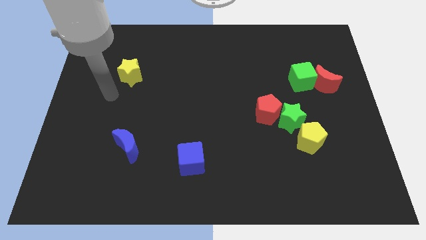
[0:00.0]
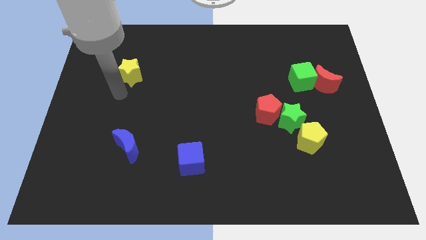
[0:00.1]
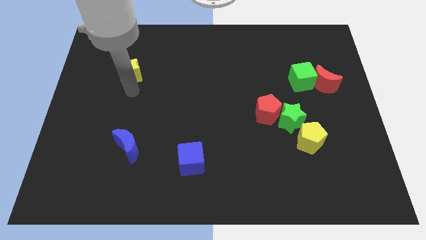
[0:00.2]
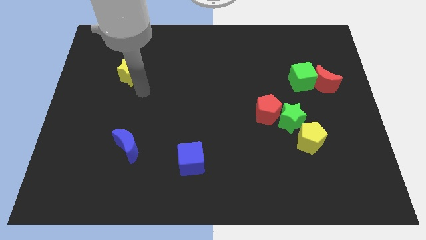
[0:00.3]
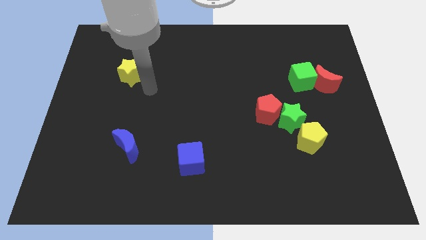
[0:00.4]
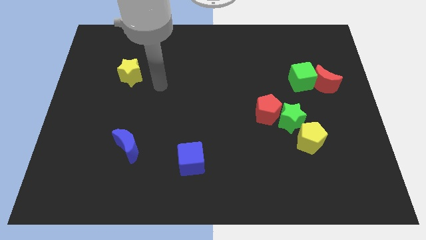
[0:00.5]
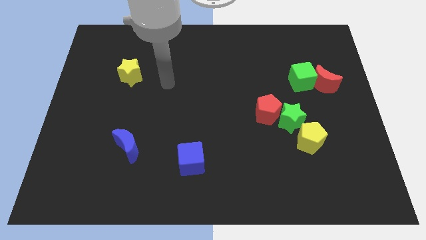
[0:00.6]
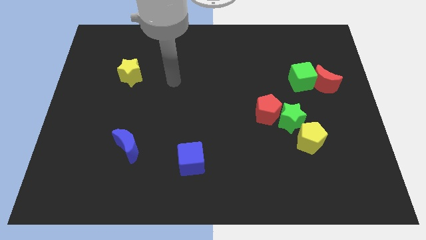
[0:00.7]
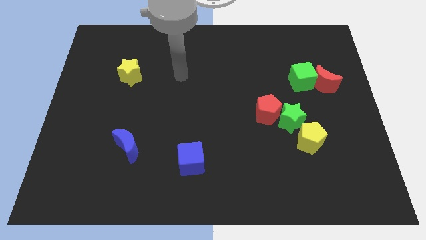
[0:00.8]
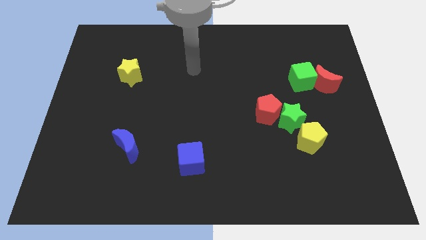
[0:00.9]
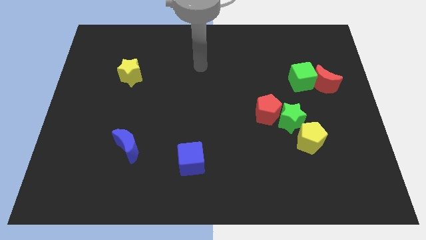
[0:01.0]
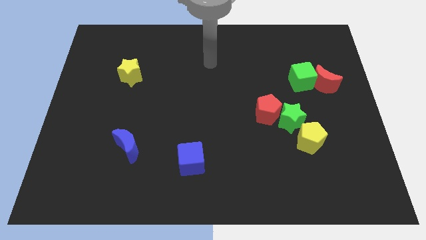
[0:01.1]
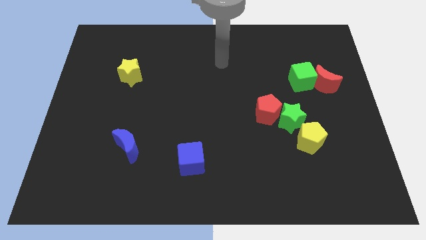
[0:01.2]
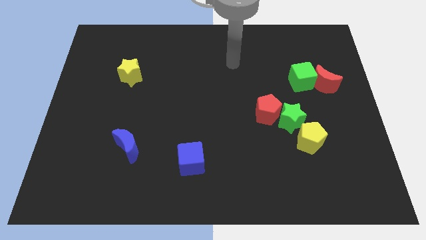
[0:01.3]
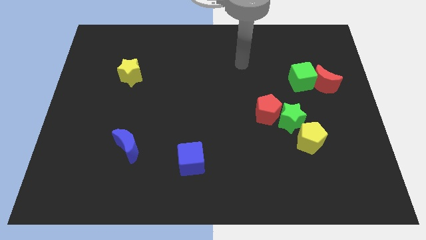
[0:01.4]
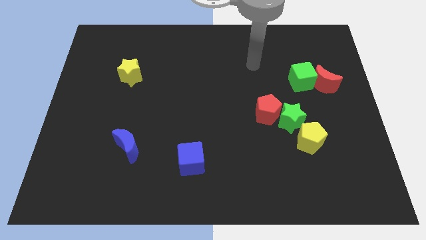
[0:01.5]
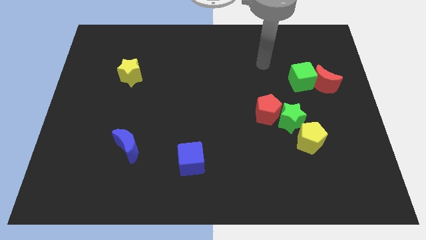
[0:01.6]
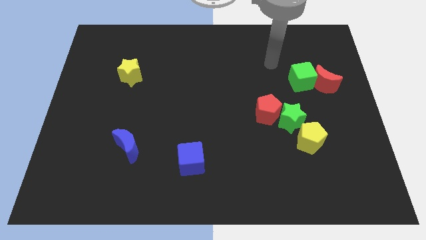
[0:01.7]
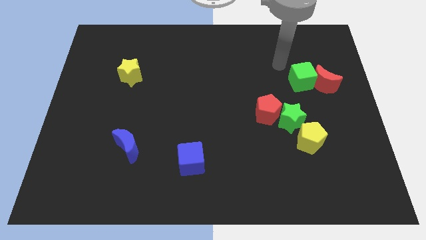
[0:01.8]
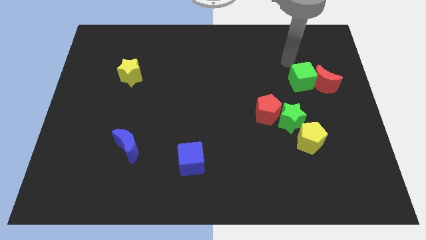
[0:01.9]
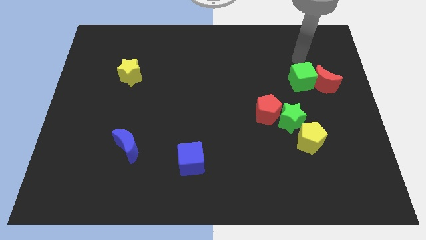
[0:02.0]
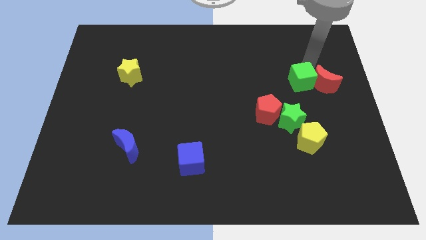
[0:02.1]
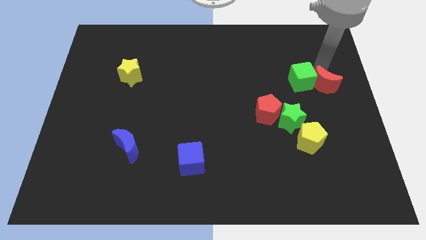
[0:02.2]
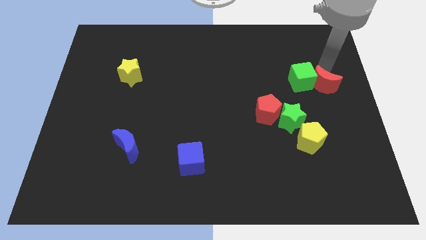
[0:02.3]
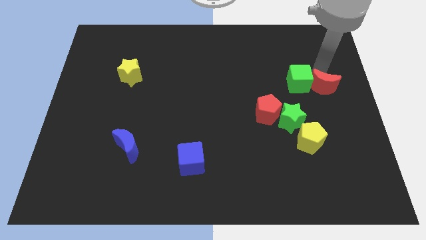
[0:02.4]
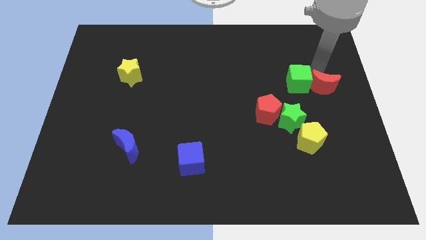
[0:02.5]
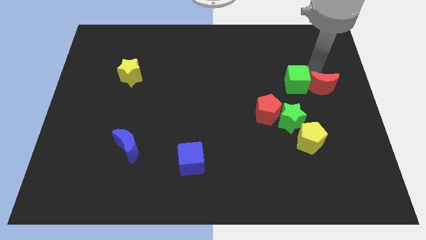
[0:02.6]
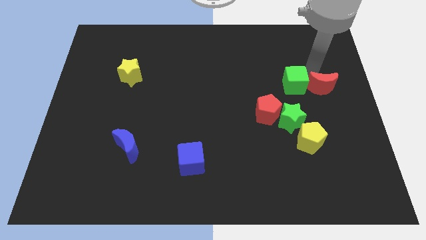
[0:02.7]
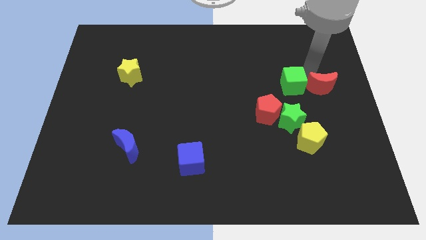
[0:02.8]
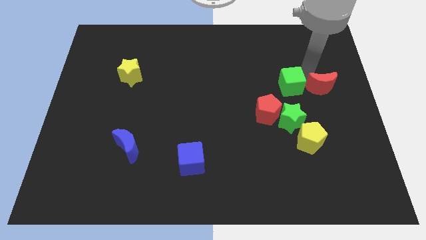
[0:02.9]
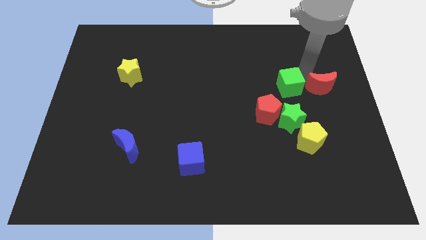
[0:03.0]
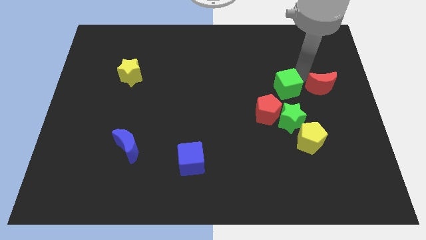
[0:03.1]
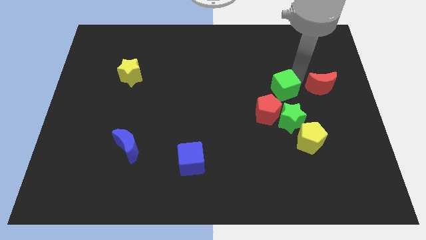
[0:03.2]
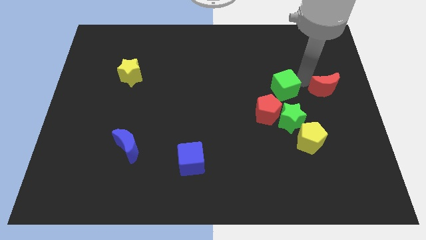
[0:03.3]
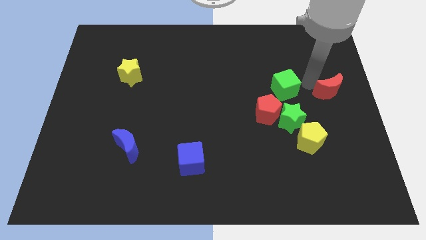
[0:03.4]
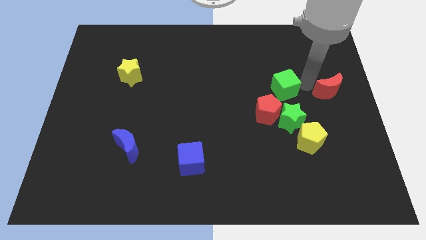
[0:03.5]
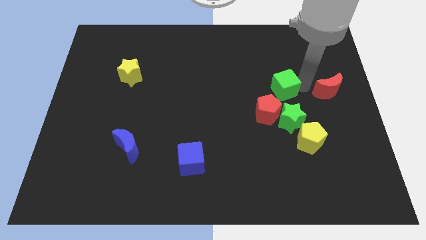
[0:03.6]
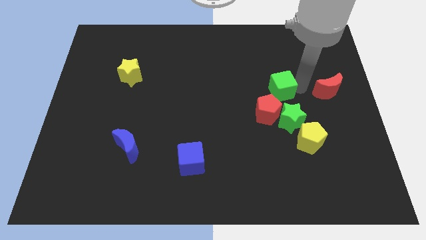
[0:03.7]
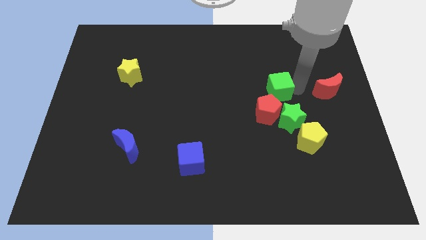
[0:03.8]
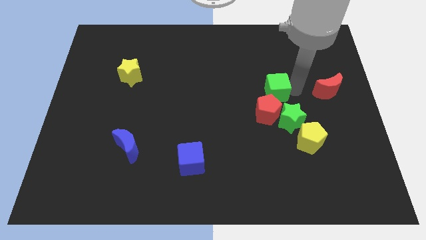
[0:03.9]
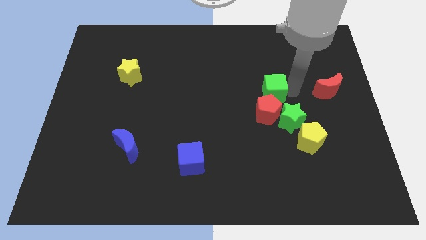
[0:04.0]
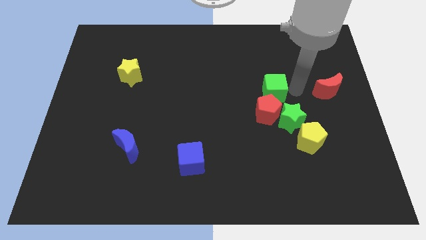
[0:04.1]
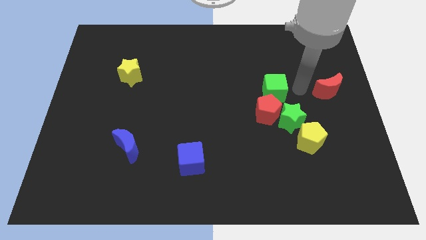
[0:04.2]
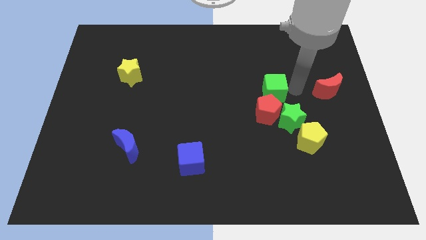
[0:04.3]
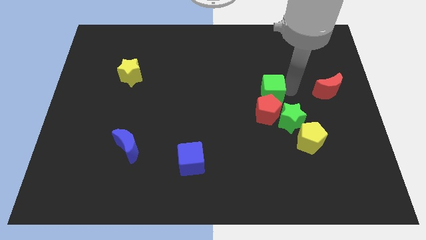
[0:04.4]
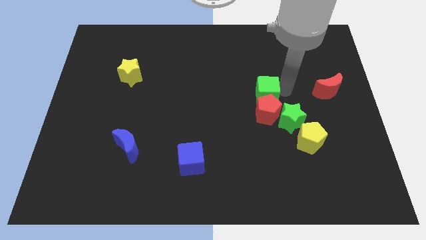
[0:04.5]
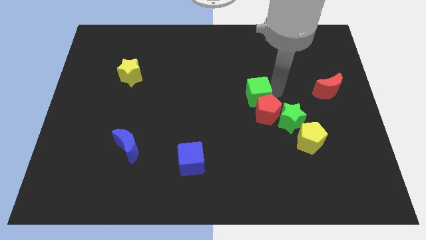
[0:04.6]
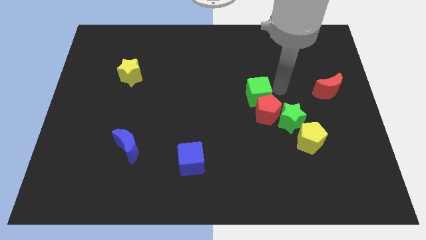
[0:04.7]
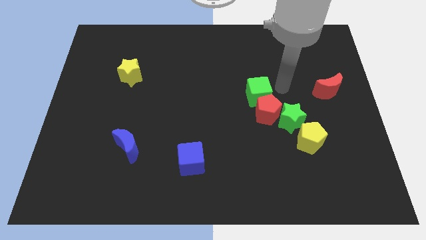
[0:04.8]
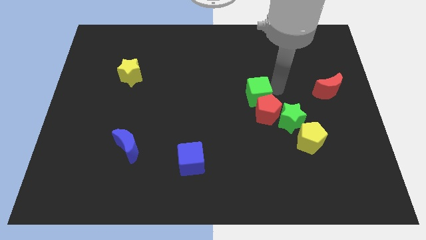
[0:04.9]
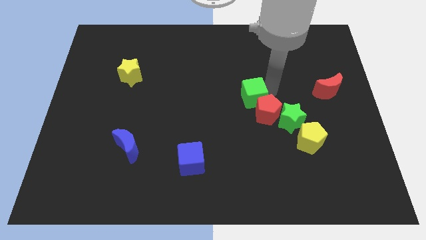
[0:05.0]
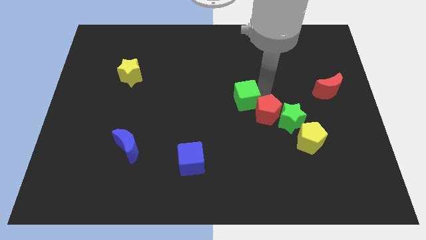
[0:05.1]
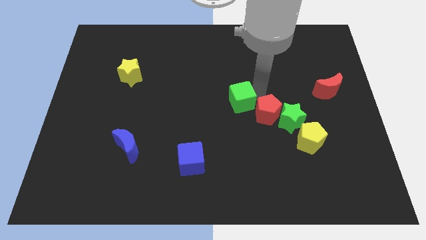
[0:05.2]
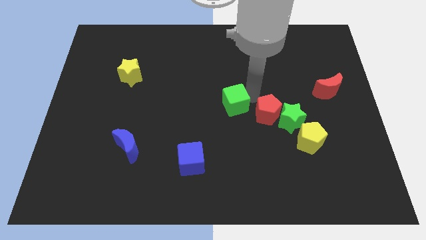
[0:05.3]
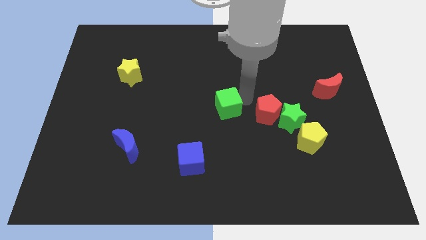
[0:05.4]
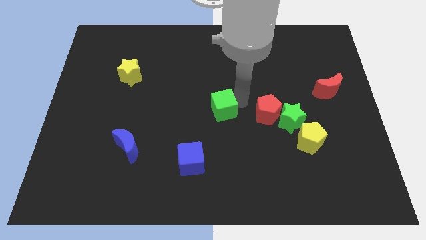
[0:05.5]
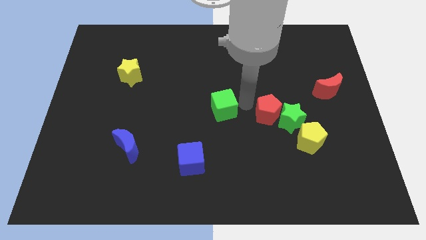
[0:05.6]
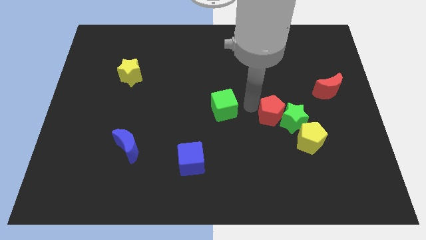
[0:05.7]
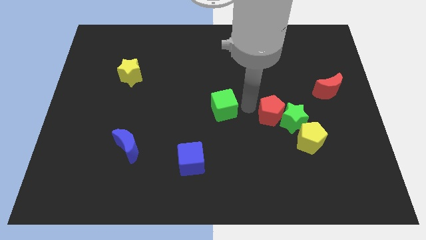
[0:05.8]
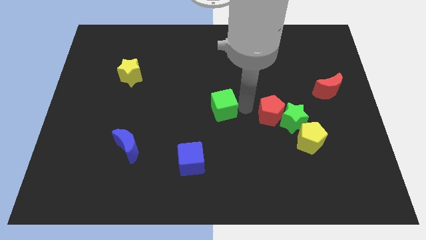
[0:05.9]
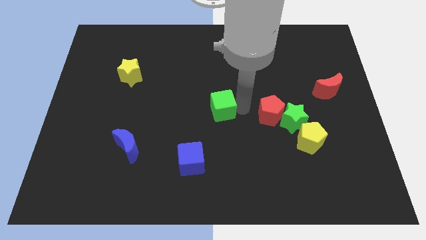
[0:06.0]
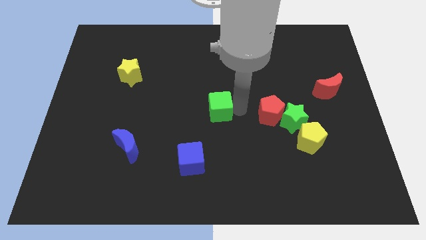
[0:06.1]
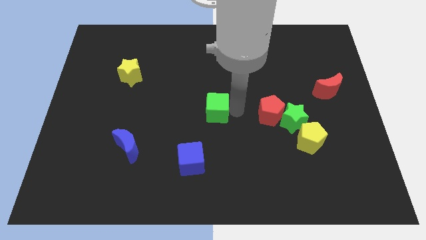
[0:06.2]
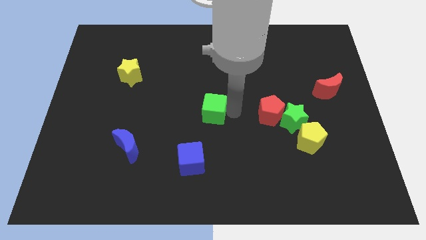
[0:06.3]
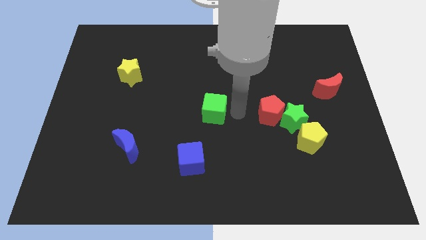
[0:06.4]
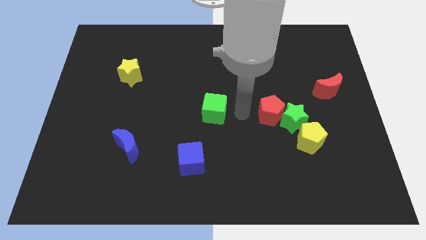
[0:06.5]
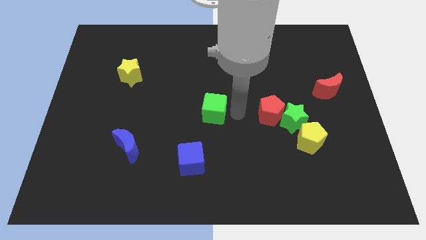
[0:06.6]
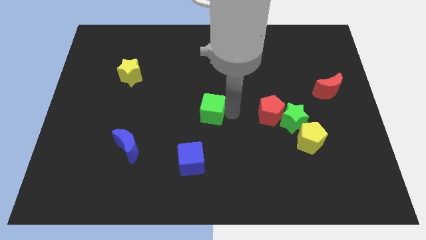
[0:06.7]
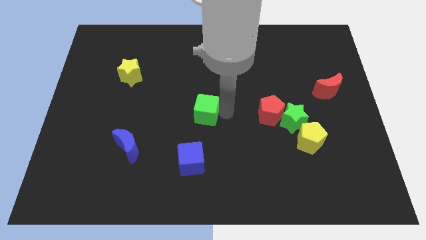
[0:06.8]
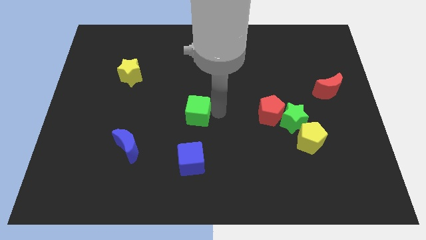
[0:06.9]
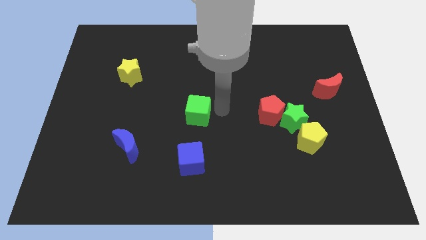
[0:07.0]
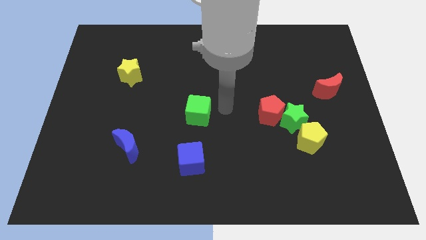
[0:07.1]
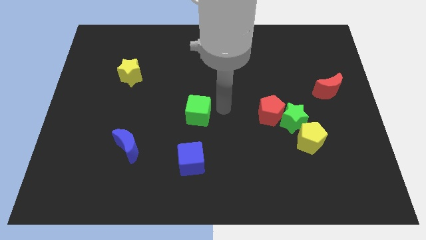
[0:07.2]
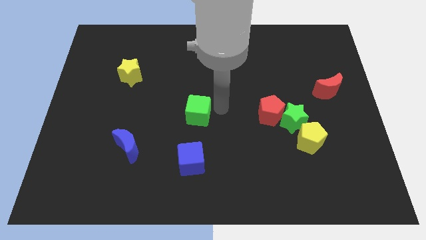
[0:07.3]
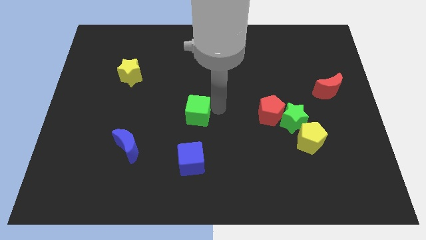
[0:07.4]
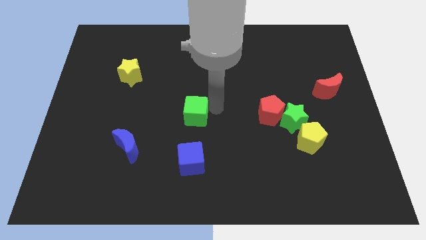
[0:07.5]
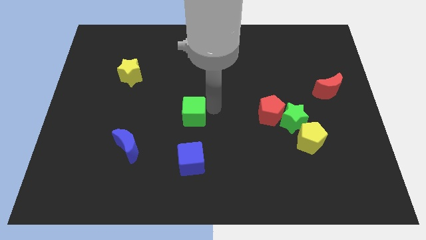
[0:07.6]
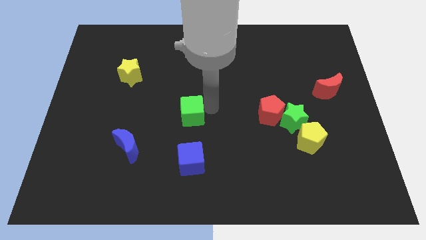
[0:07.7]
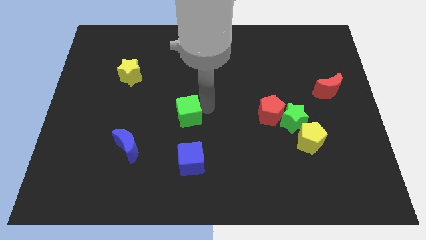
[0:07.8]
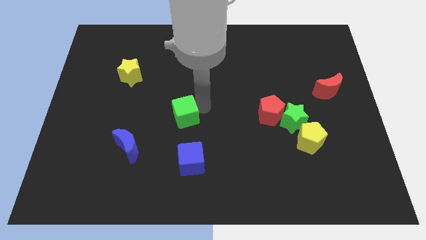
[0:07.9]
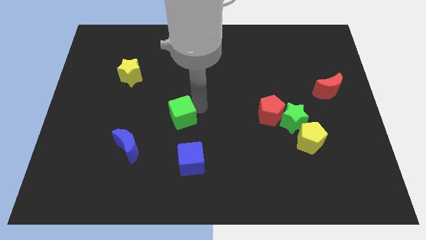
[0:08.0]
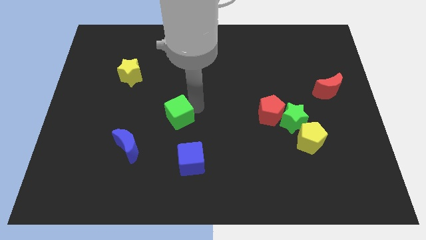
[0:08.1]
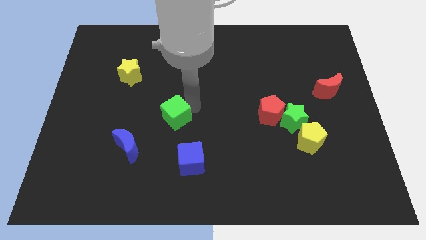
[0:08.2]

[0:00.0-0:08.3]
slide the green cube to the top right of the blue moon
